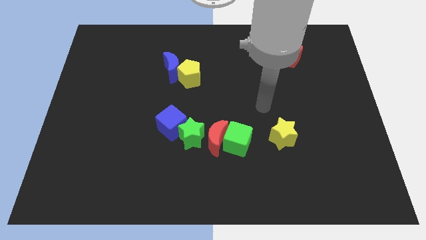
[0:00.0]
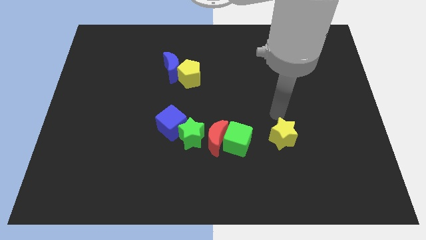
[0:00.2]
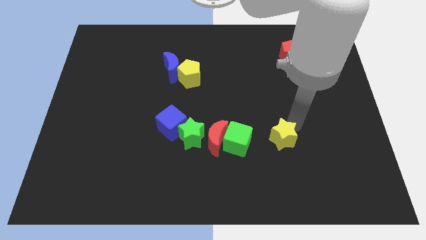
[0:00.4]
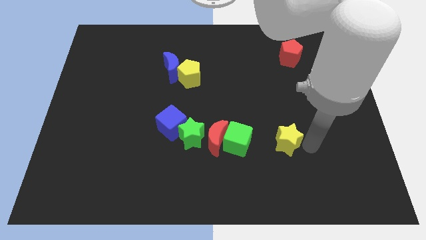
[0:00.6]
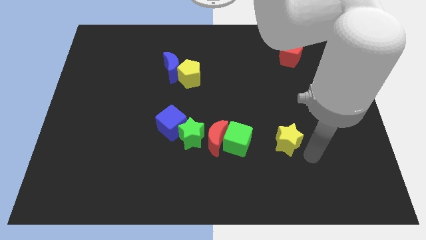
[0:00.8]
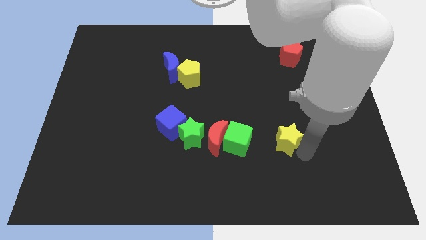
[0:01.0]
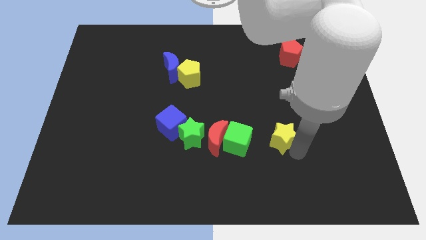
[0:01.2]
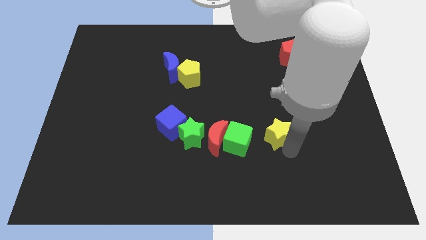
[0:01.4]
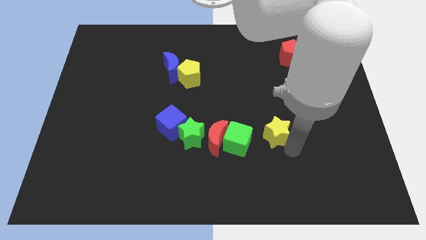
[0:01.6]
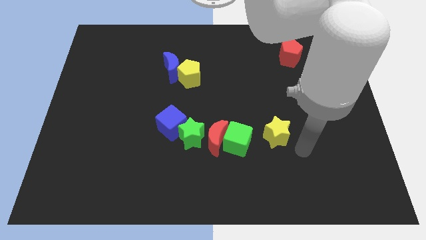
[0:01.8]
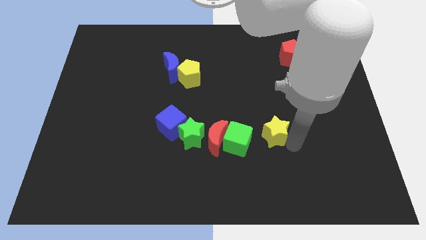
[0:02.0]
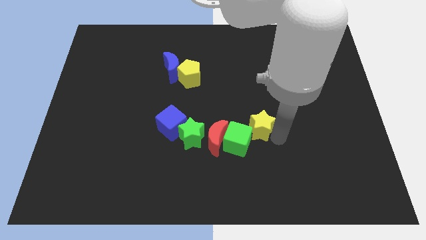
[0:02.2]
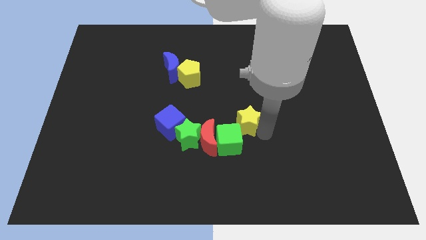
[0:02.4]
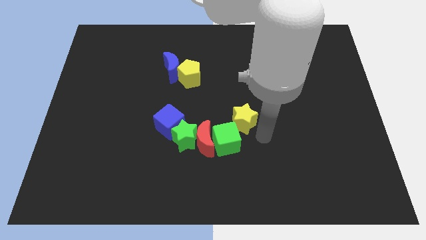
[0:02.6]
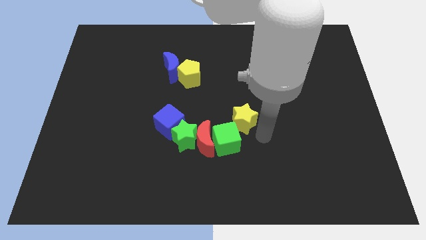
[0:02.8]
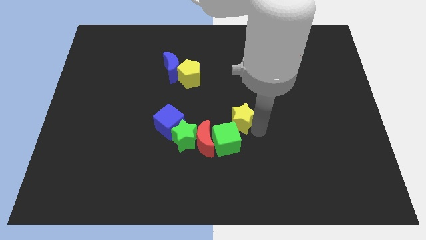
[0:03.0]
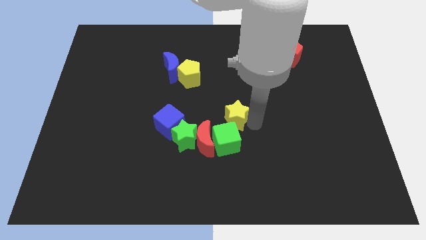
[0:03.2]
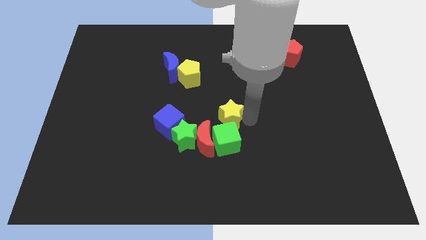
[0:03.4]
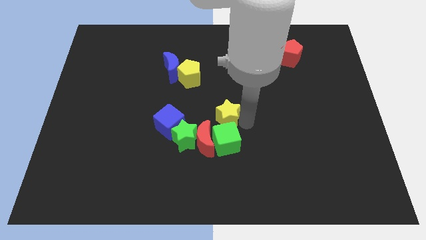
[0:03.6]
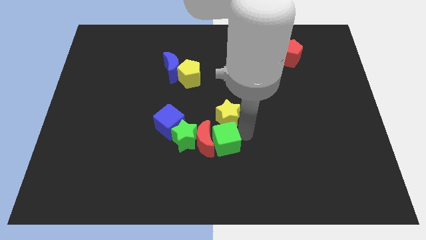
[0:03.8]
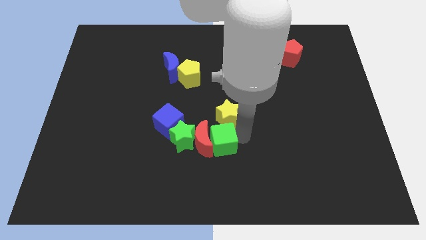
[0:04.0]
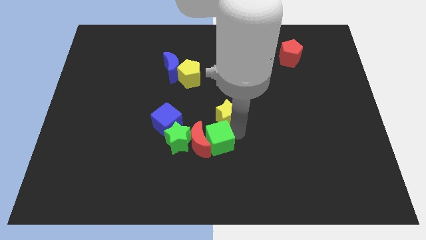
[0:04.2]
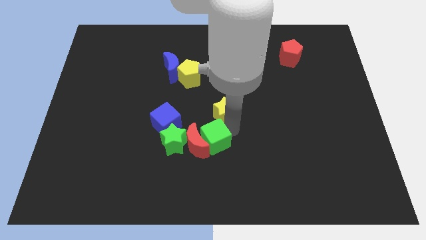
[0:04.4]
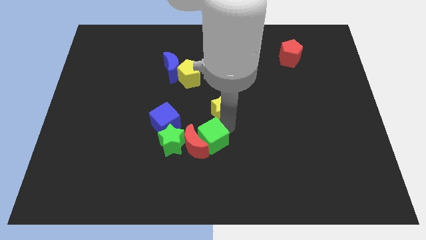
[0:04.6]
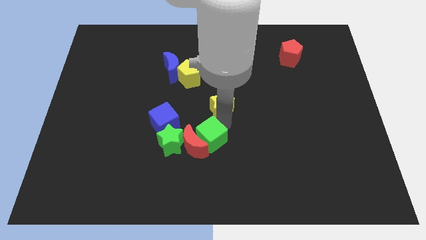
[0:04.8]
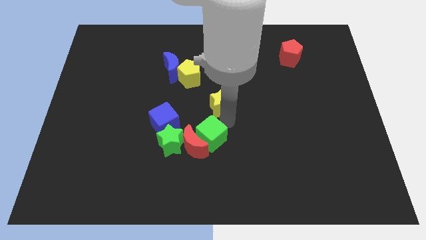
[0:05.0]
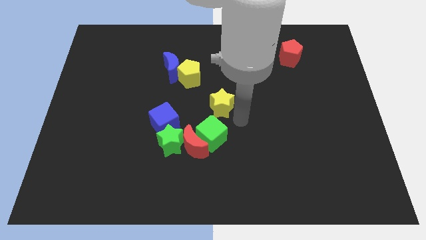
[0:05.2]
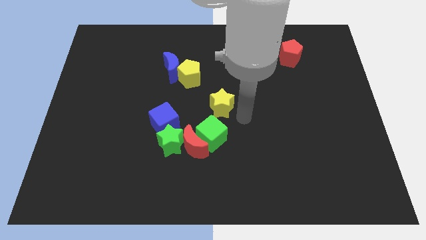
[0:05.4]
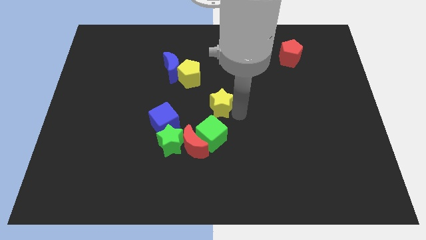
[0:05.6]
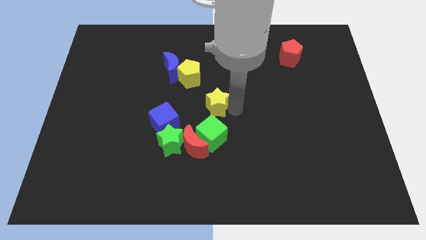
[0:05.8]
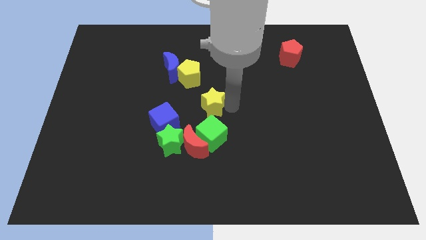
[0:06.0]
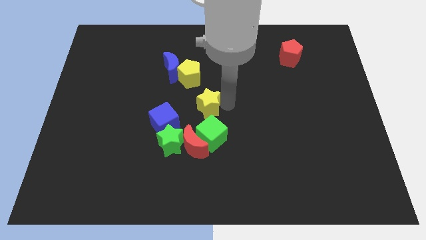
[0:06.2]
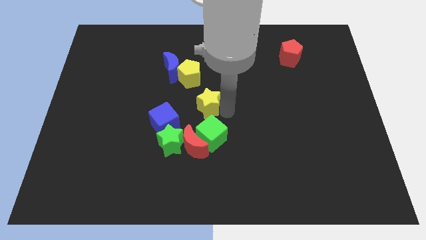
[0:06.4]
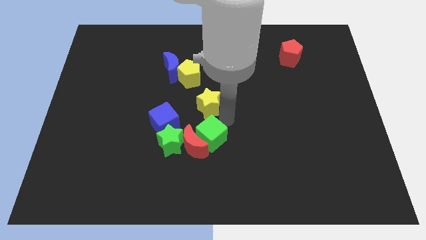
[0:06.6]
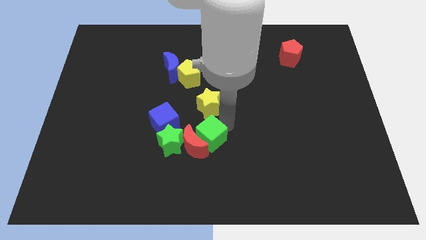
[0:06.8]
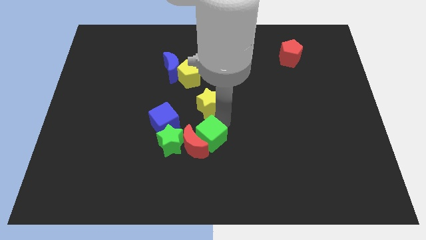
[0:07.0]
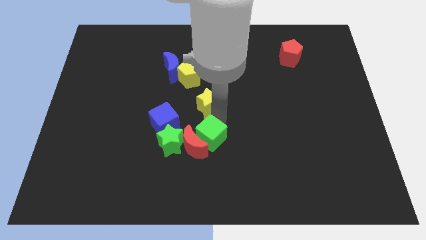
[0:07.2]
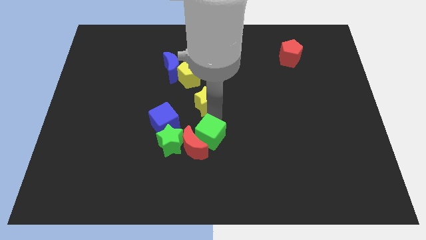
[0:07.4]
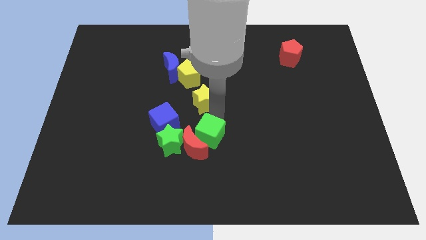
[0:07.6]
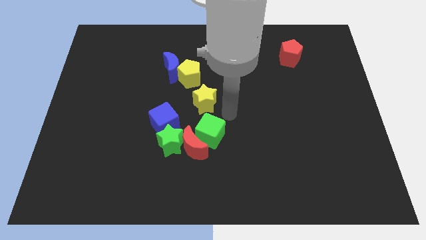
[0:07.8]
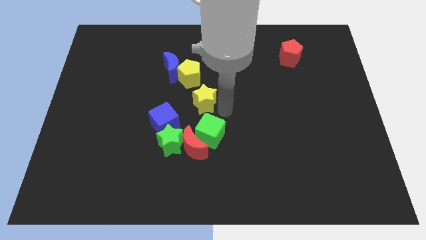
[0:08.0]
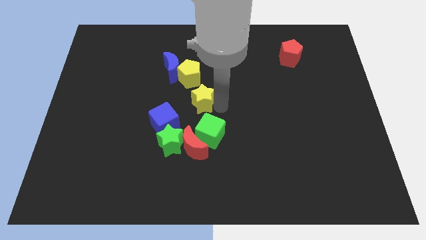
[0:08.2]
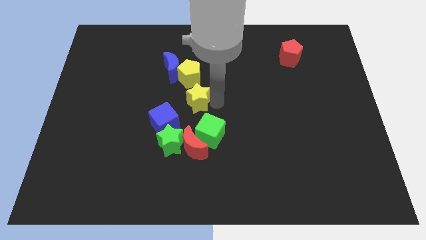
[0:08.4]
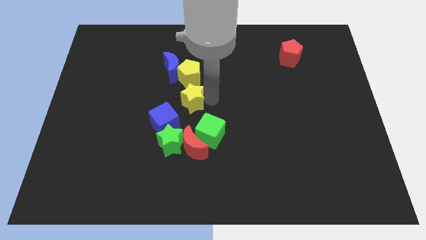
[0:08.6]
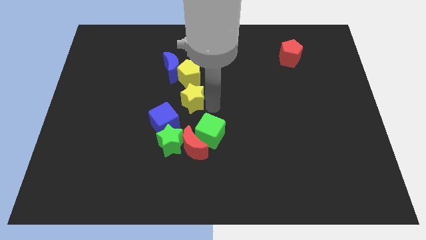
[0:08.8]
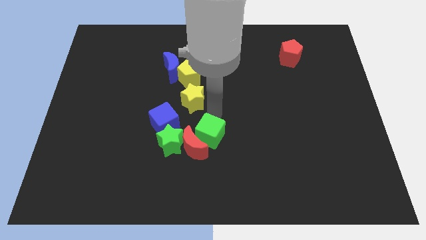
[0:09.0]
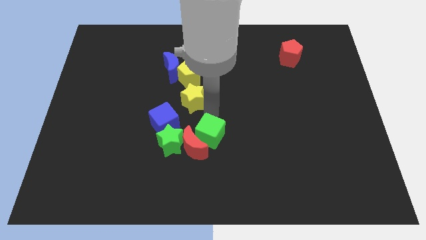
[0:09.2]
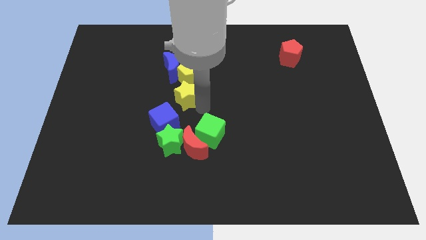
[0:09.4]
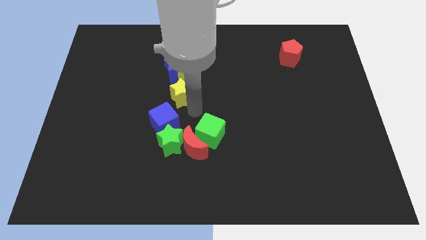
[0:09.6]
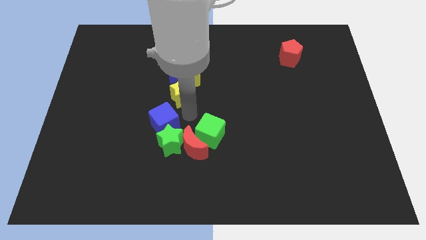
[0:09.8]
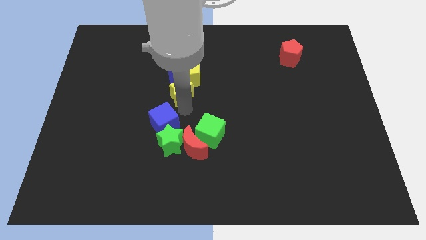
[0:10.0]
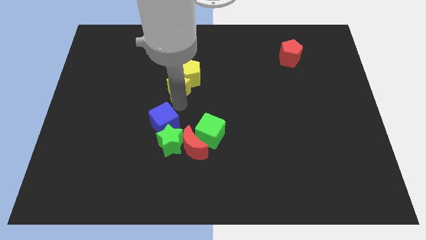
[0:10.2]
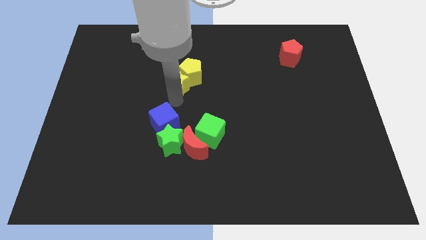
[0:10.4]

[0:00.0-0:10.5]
put the yellow star next to the blue moon

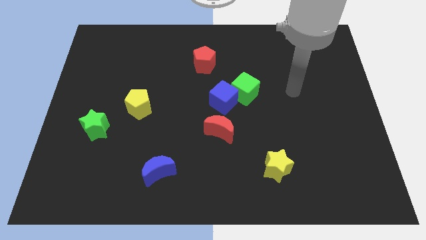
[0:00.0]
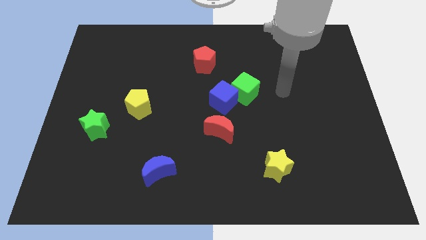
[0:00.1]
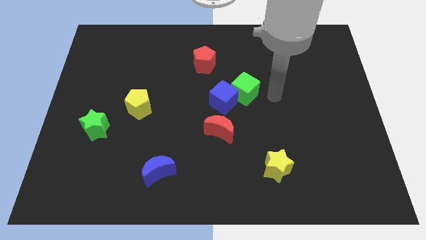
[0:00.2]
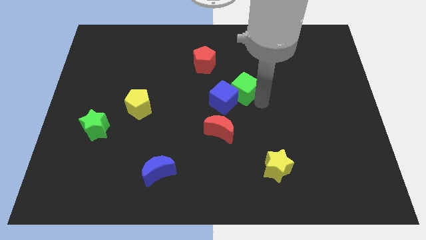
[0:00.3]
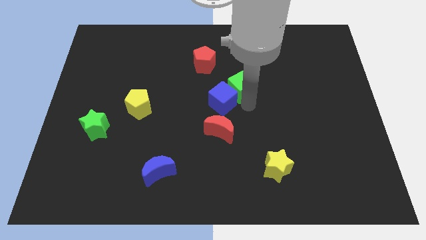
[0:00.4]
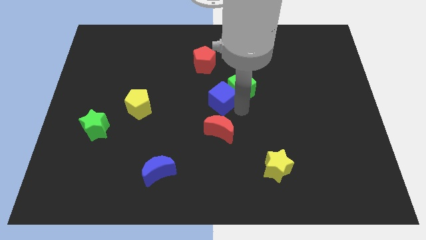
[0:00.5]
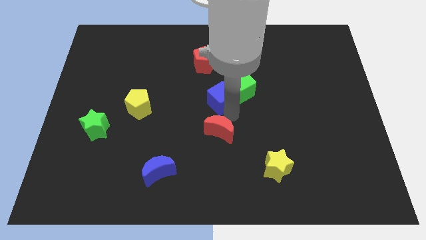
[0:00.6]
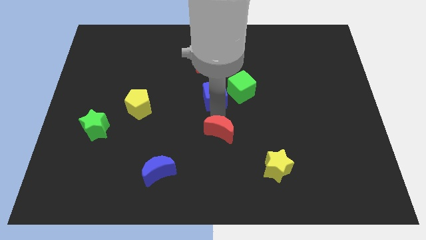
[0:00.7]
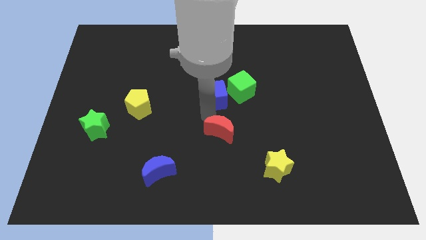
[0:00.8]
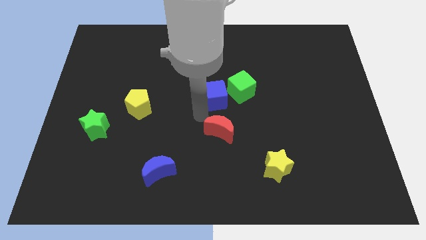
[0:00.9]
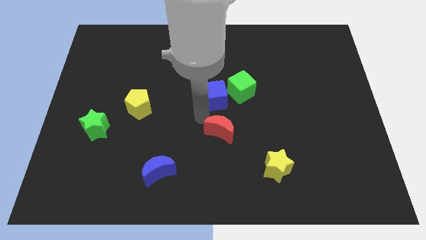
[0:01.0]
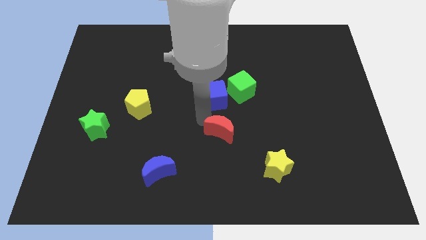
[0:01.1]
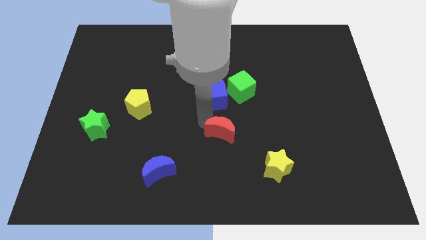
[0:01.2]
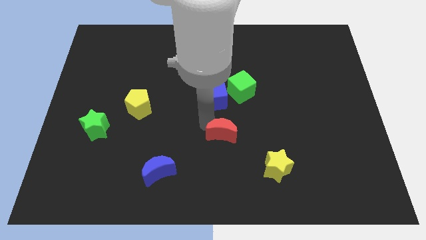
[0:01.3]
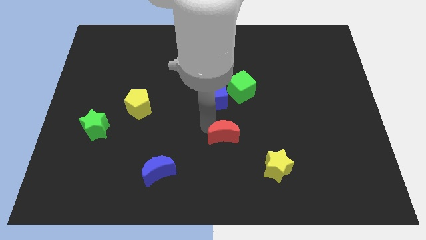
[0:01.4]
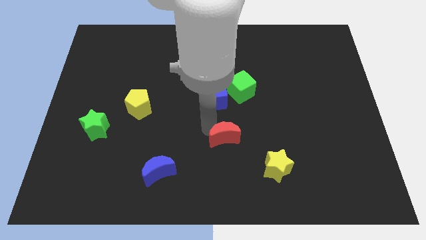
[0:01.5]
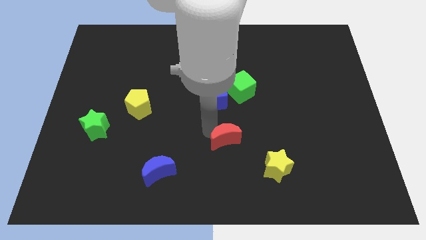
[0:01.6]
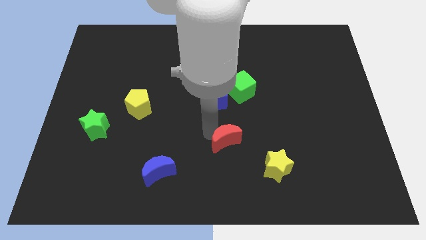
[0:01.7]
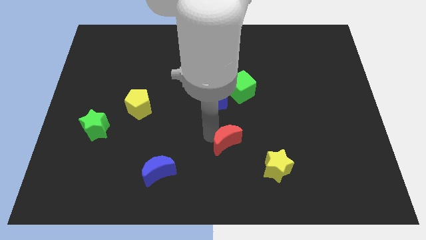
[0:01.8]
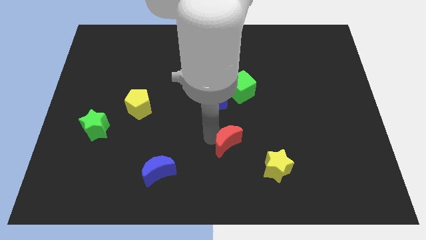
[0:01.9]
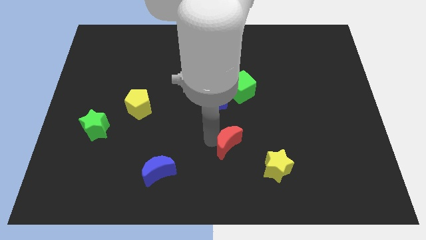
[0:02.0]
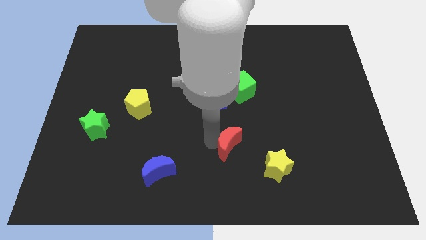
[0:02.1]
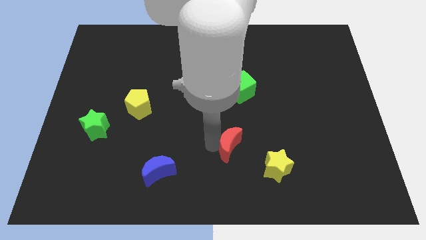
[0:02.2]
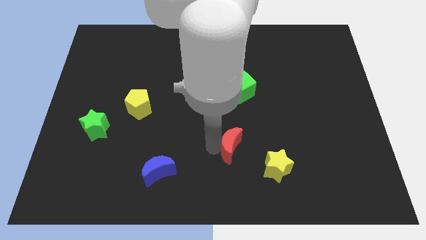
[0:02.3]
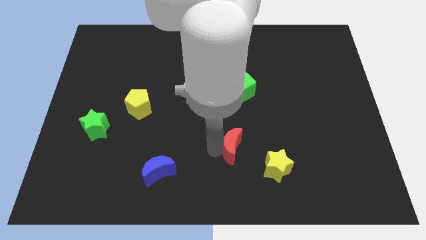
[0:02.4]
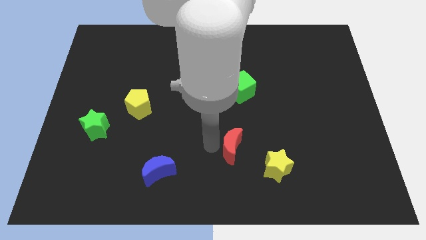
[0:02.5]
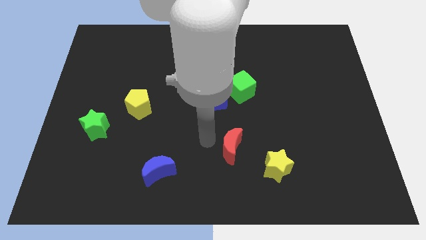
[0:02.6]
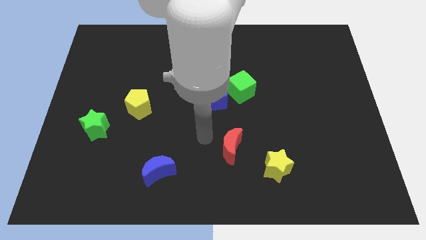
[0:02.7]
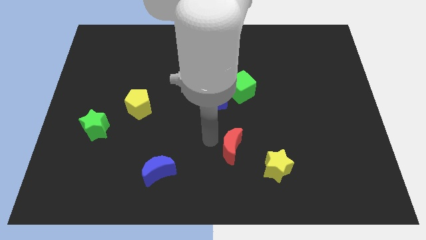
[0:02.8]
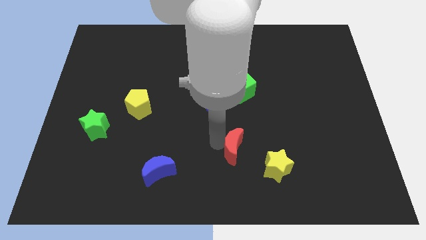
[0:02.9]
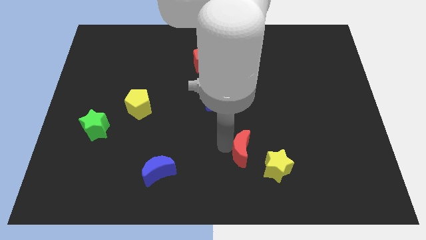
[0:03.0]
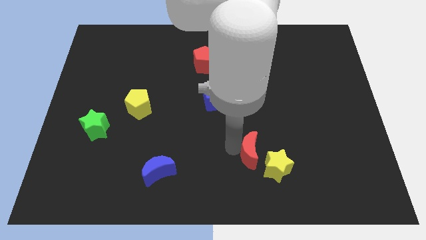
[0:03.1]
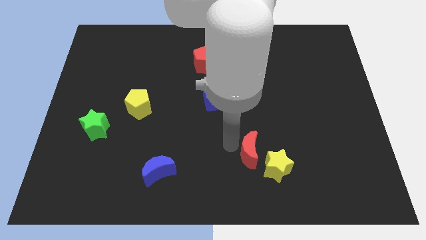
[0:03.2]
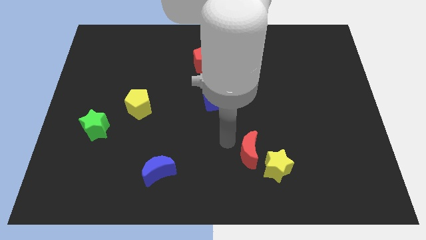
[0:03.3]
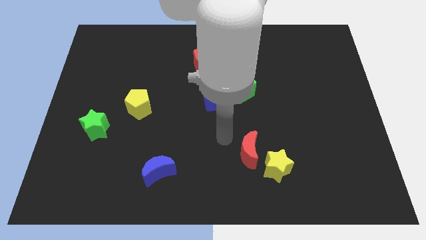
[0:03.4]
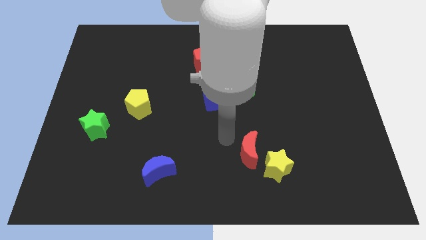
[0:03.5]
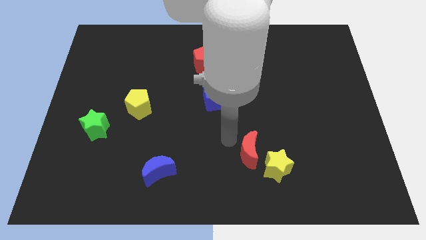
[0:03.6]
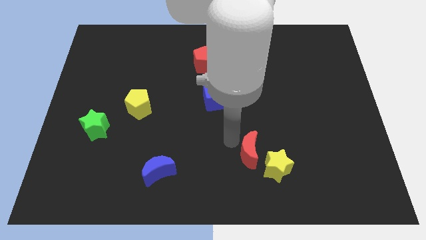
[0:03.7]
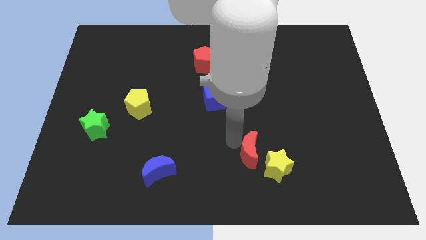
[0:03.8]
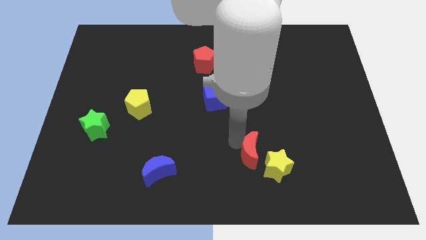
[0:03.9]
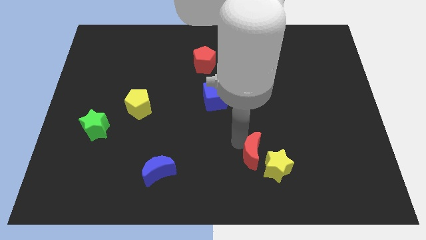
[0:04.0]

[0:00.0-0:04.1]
slide the red moon to the yellow star
